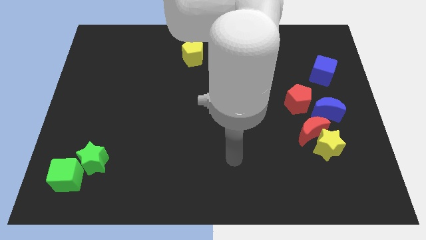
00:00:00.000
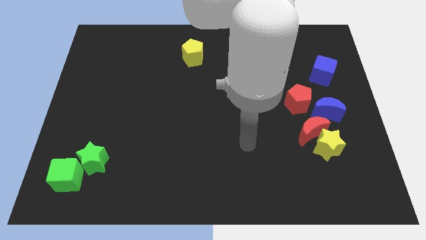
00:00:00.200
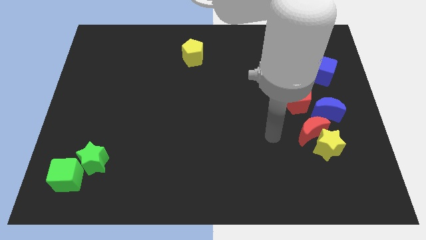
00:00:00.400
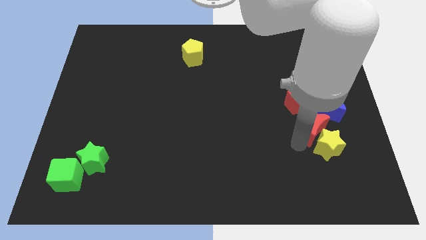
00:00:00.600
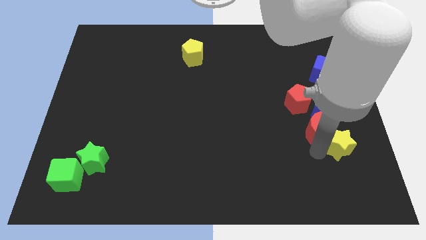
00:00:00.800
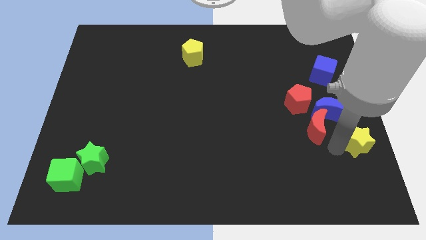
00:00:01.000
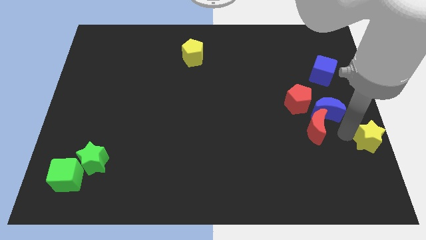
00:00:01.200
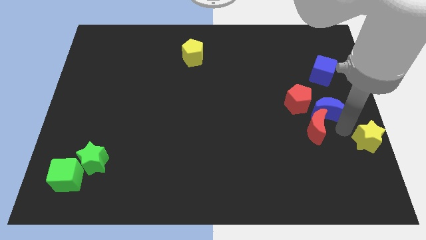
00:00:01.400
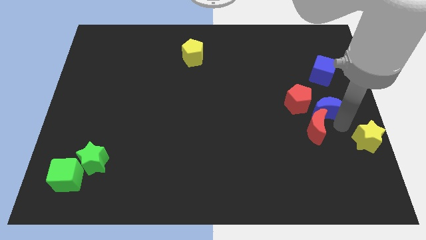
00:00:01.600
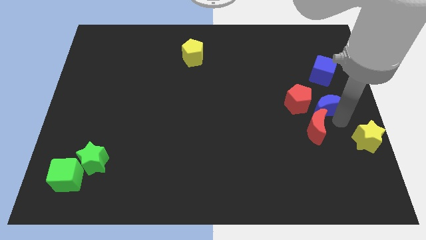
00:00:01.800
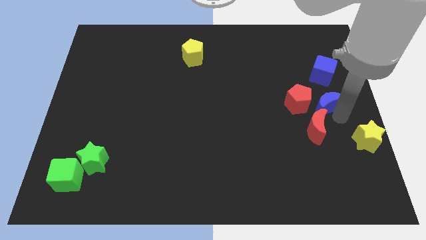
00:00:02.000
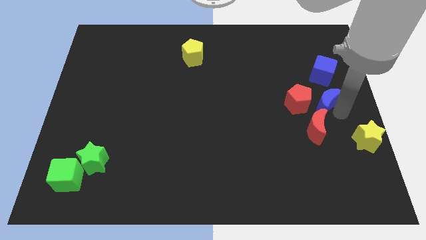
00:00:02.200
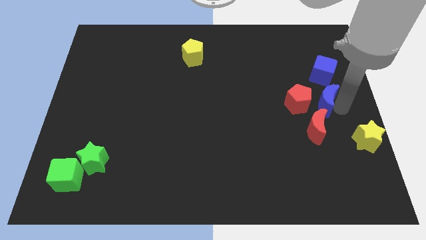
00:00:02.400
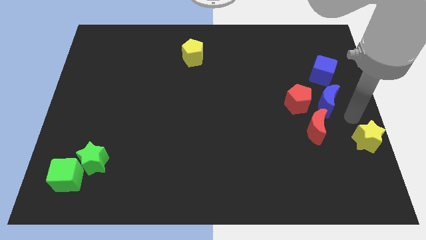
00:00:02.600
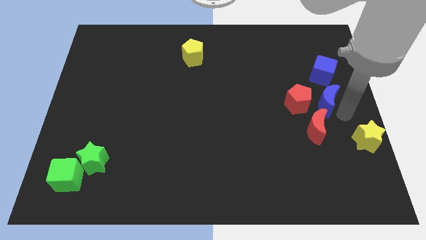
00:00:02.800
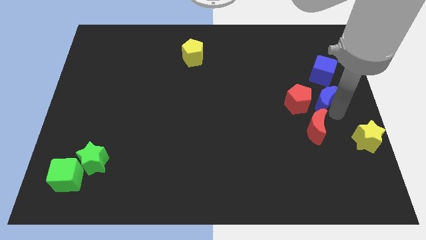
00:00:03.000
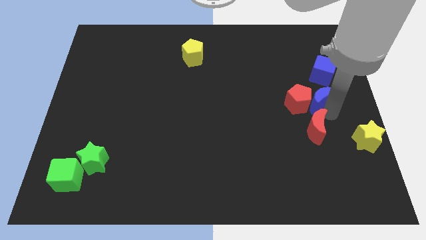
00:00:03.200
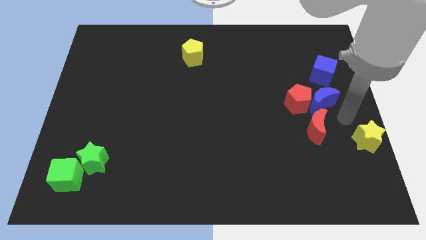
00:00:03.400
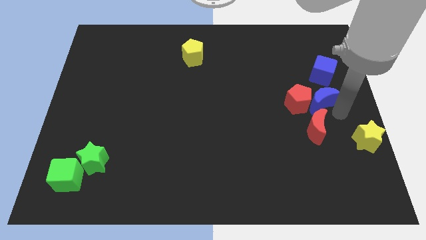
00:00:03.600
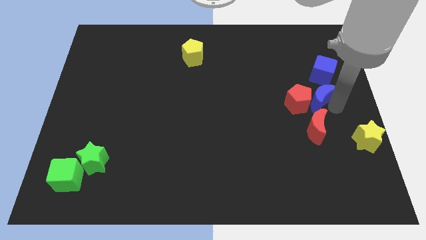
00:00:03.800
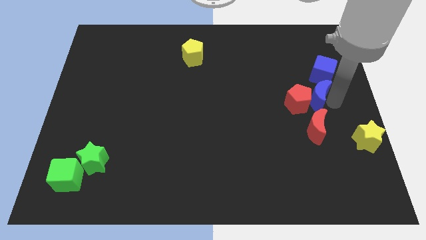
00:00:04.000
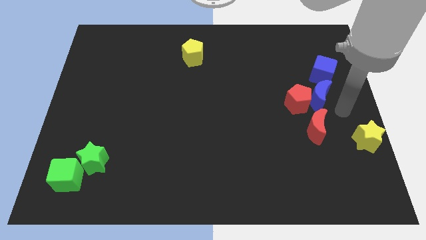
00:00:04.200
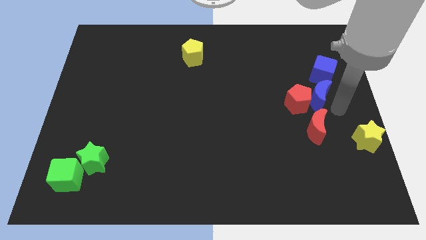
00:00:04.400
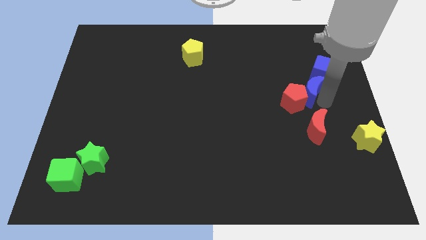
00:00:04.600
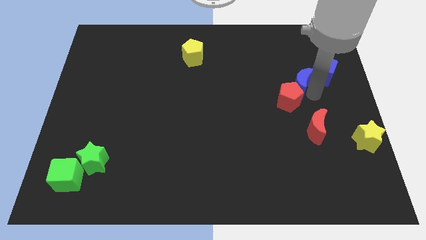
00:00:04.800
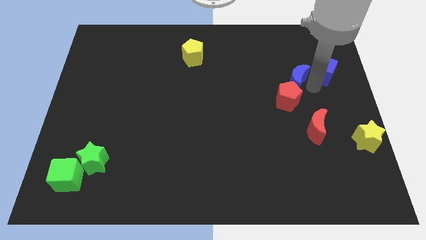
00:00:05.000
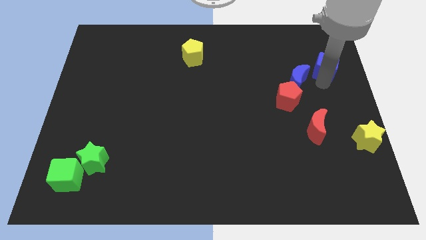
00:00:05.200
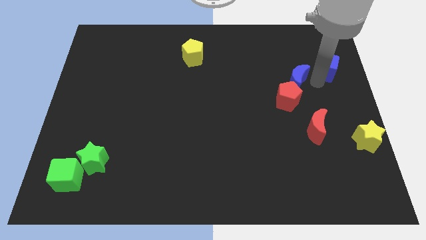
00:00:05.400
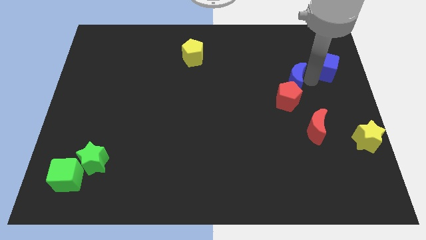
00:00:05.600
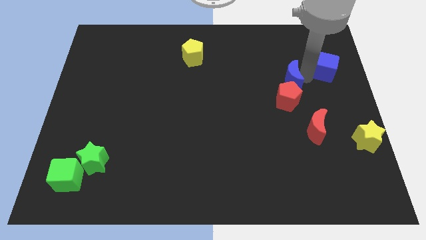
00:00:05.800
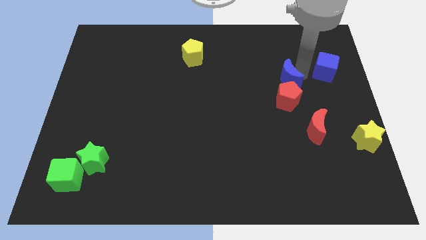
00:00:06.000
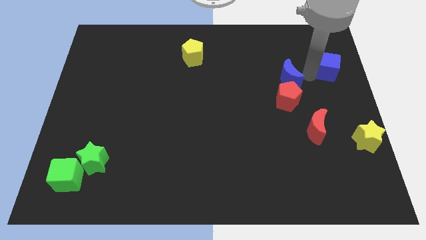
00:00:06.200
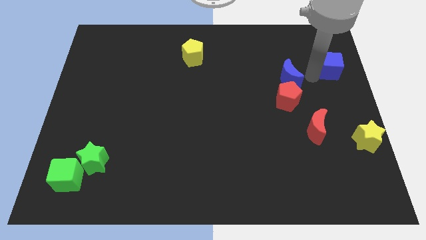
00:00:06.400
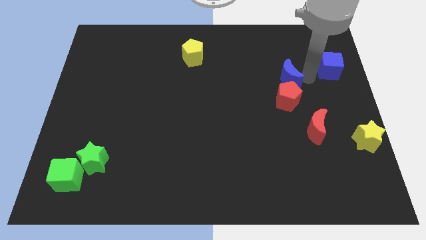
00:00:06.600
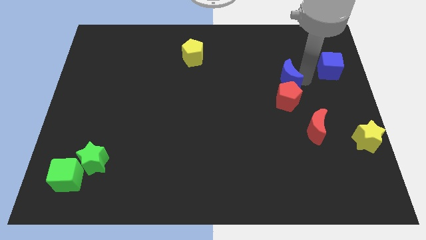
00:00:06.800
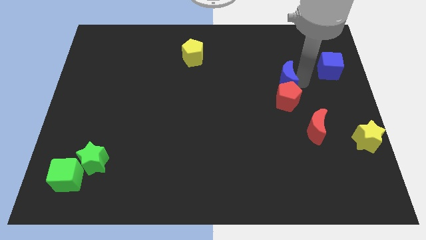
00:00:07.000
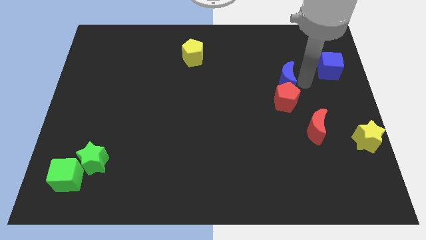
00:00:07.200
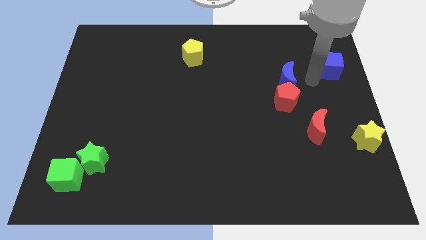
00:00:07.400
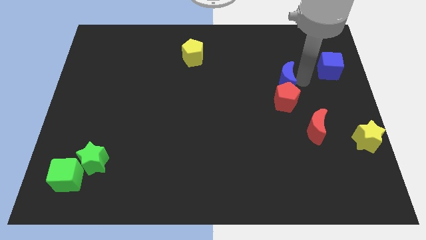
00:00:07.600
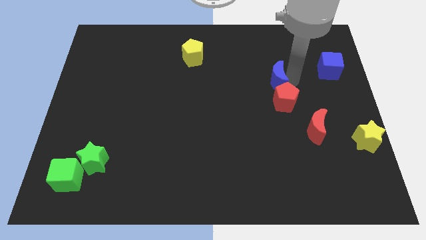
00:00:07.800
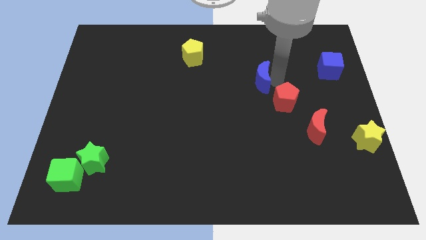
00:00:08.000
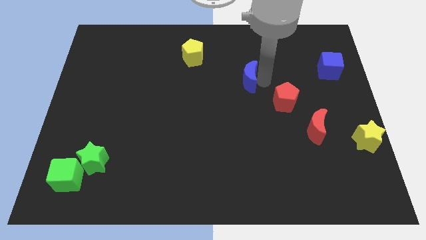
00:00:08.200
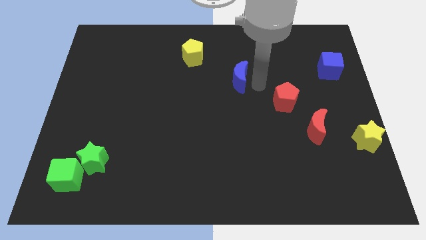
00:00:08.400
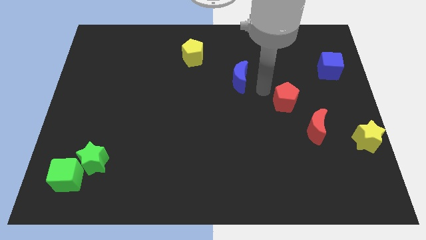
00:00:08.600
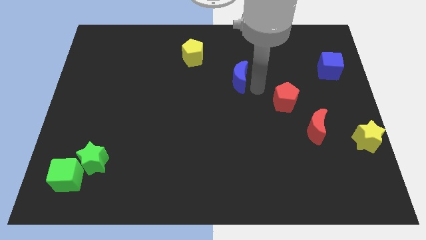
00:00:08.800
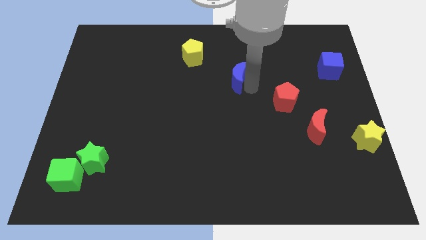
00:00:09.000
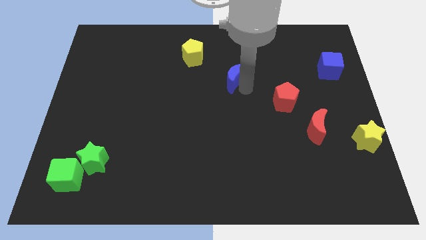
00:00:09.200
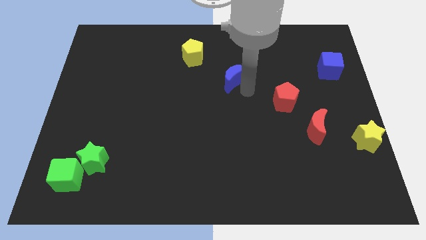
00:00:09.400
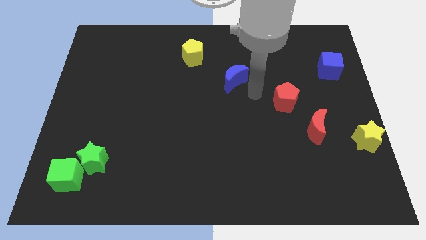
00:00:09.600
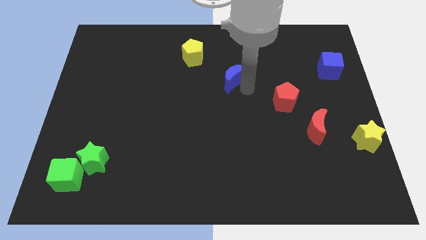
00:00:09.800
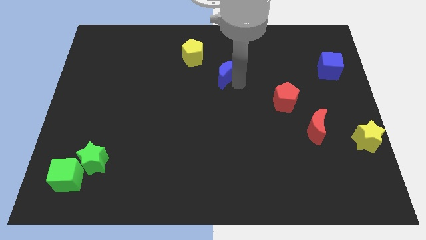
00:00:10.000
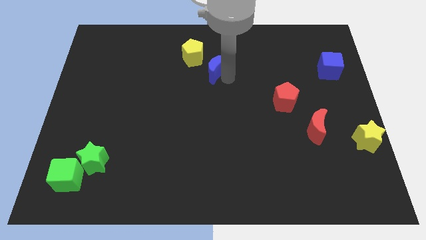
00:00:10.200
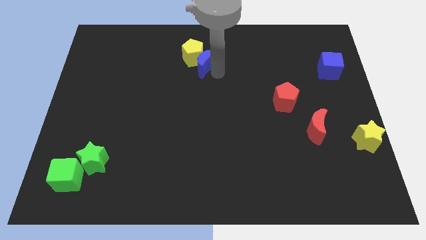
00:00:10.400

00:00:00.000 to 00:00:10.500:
put the blue moon close to the yellow pentagon

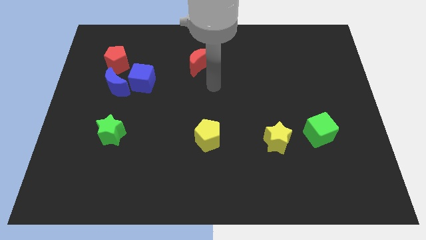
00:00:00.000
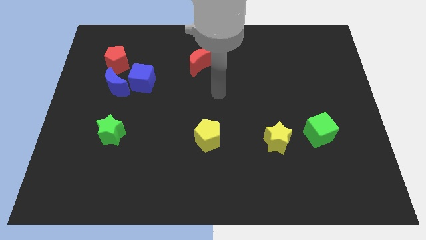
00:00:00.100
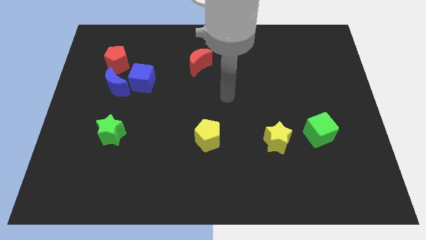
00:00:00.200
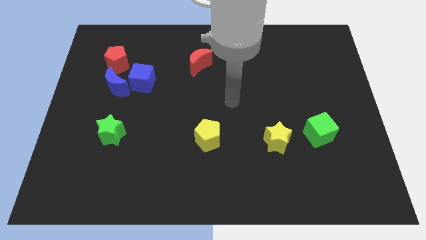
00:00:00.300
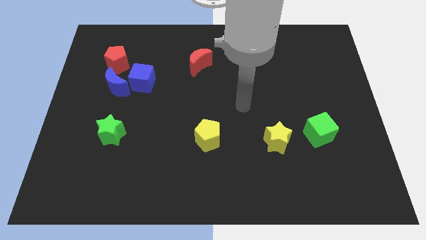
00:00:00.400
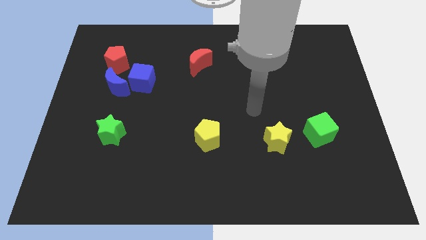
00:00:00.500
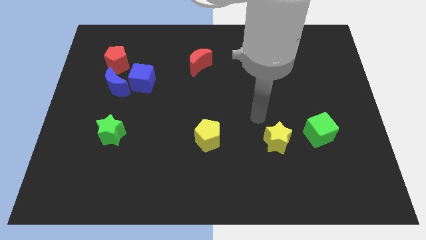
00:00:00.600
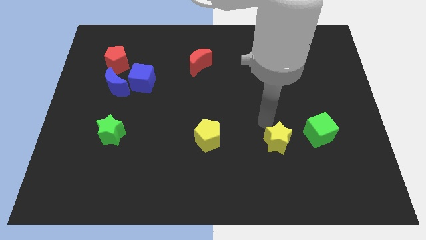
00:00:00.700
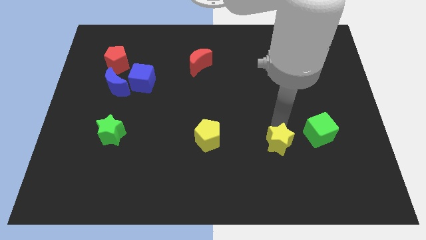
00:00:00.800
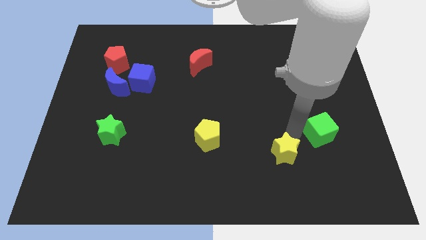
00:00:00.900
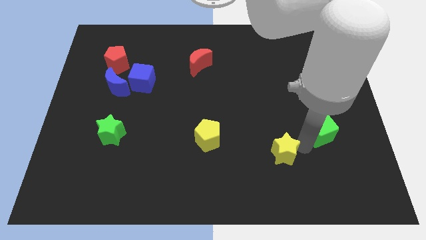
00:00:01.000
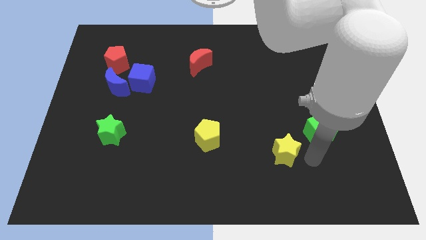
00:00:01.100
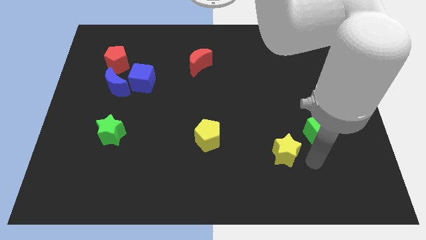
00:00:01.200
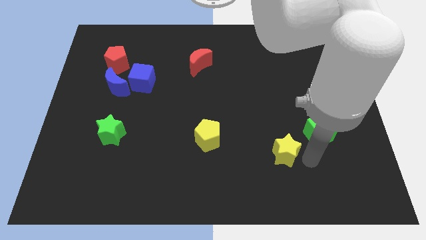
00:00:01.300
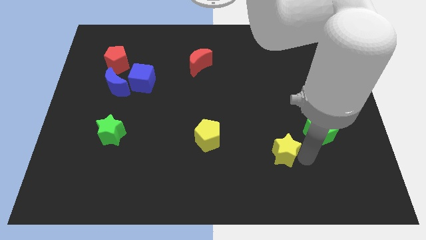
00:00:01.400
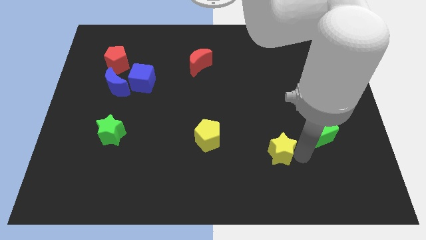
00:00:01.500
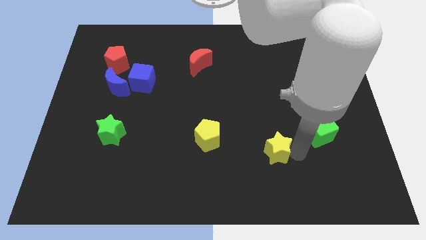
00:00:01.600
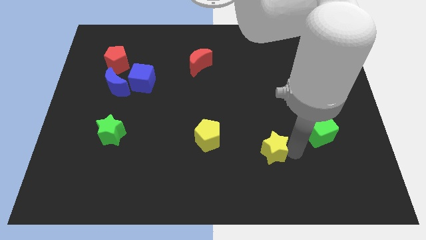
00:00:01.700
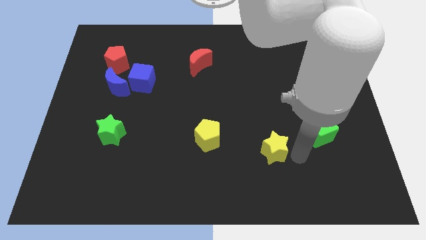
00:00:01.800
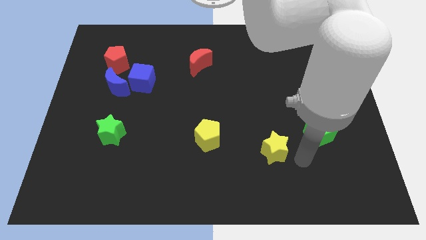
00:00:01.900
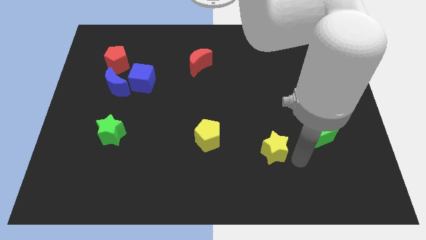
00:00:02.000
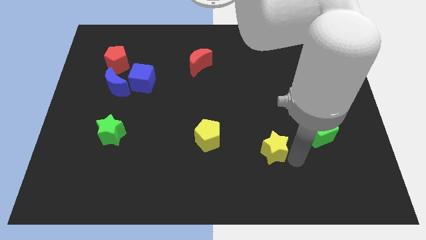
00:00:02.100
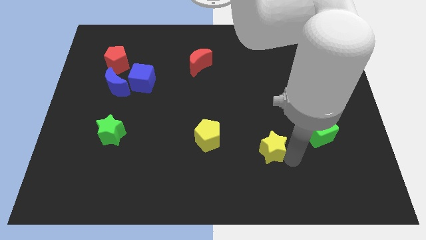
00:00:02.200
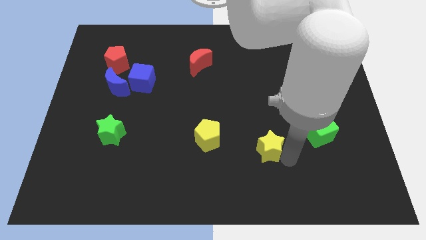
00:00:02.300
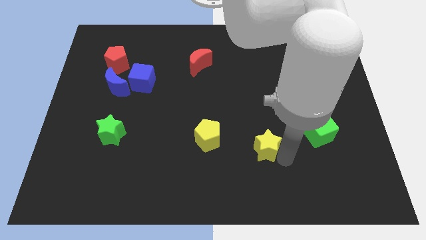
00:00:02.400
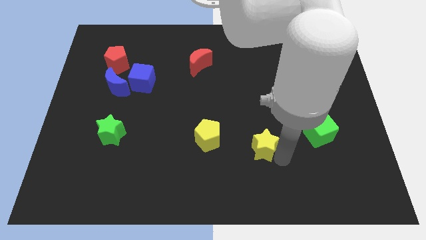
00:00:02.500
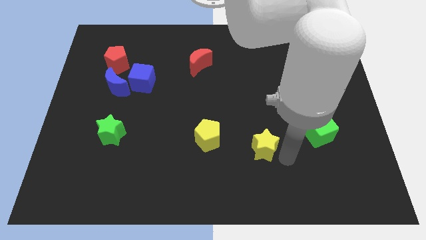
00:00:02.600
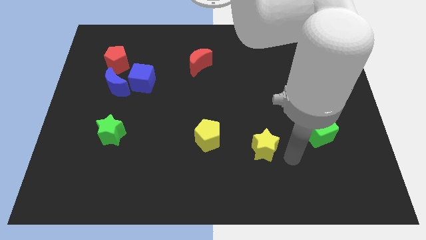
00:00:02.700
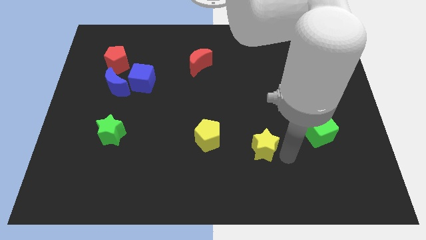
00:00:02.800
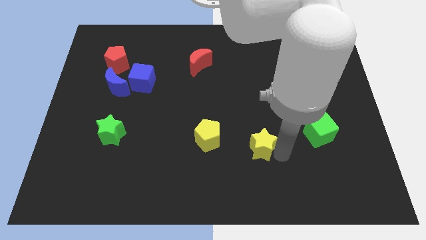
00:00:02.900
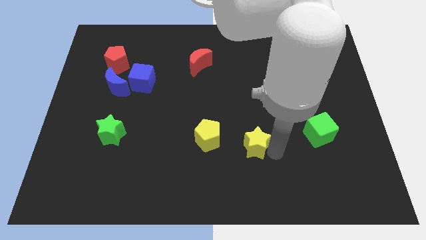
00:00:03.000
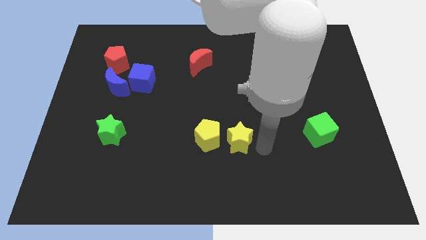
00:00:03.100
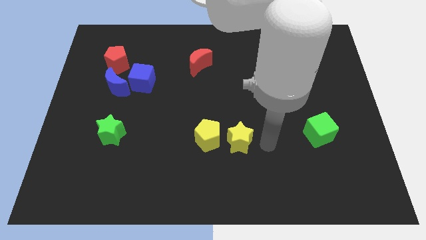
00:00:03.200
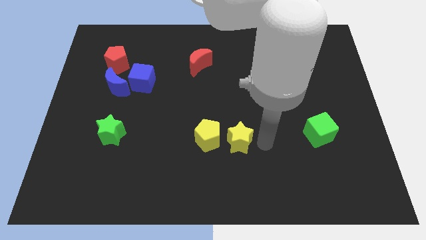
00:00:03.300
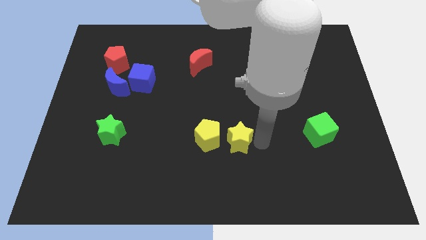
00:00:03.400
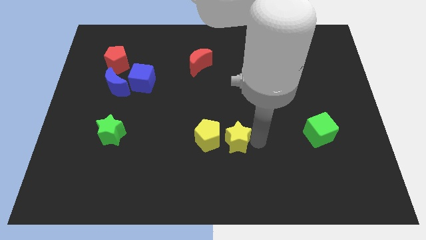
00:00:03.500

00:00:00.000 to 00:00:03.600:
push the yellow star towards the yellow pentagon
